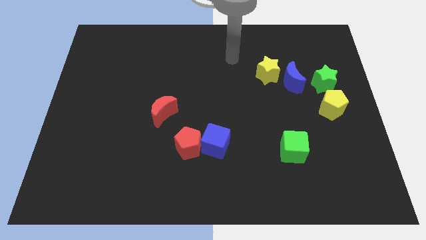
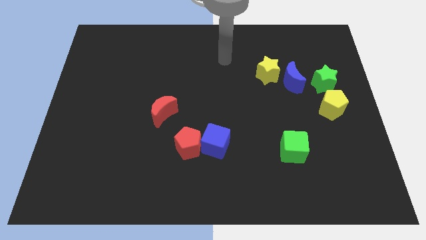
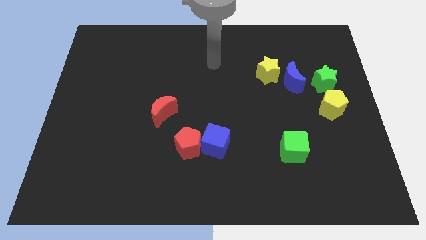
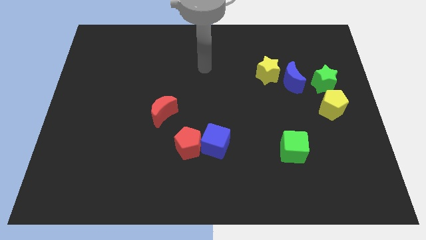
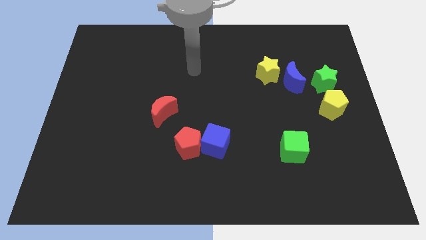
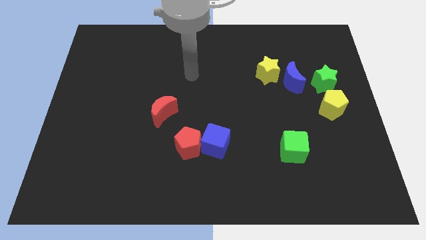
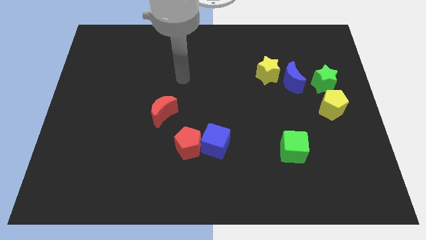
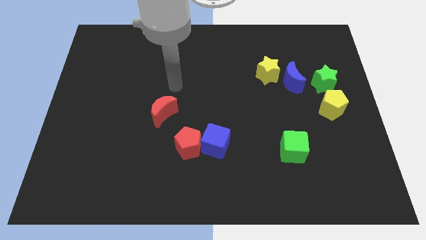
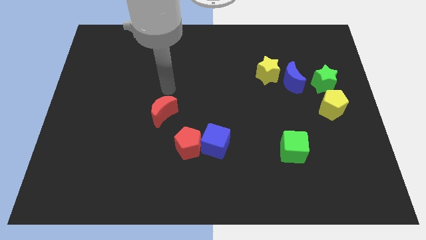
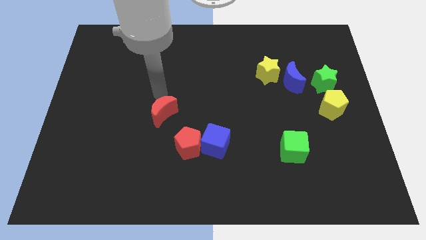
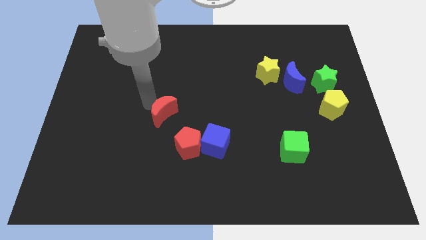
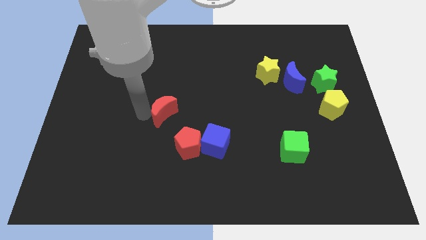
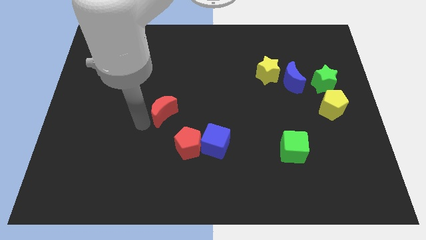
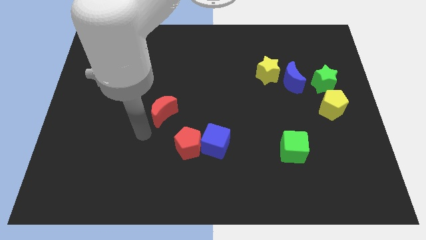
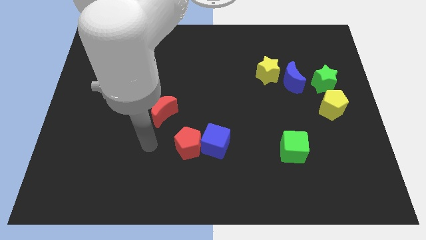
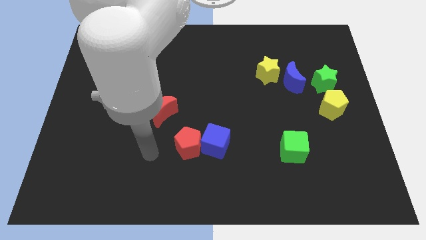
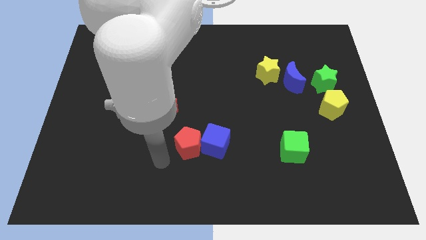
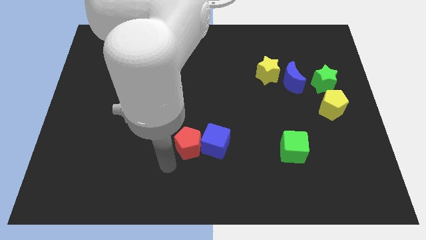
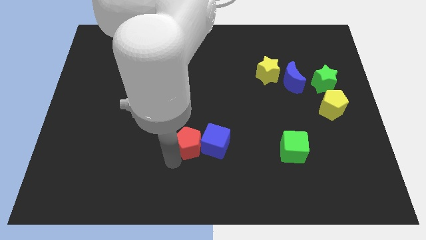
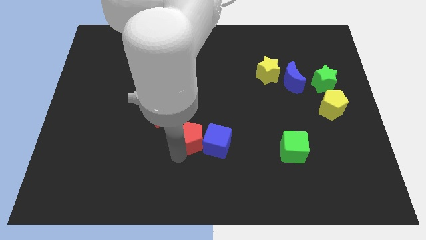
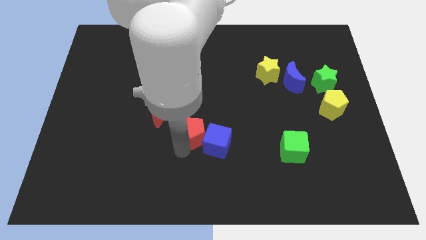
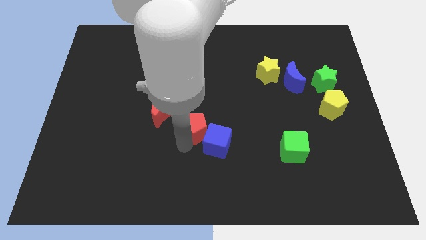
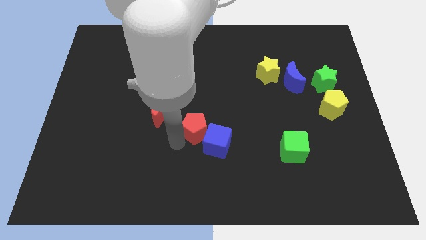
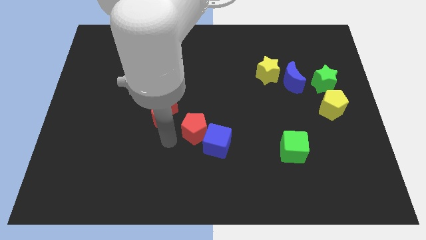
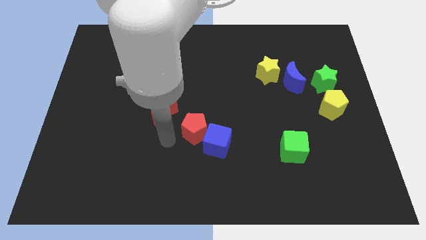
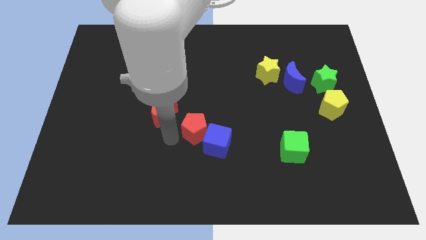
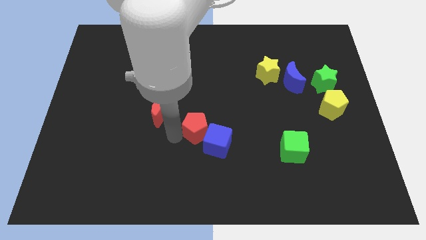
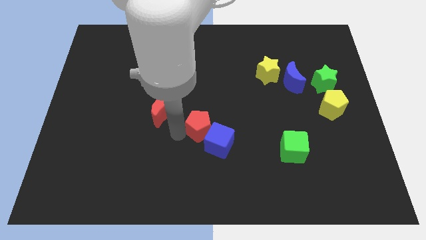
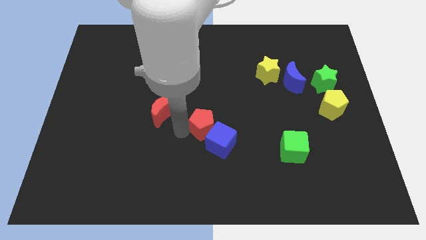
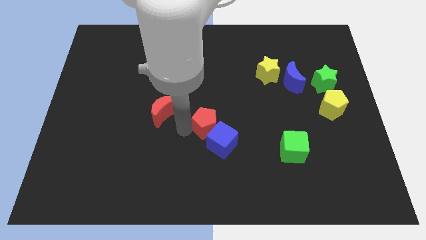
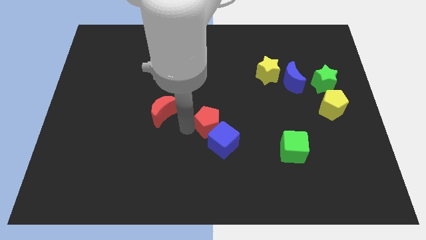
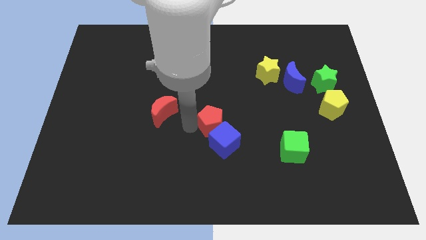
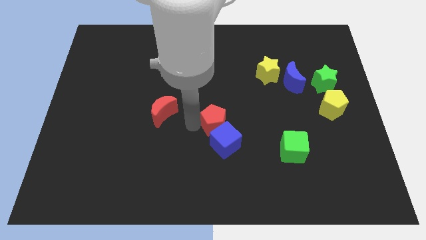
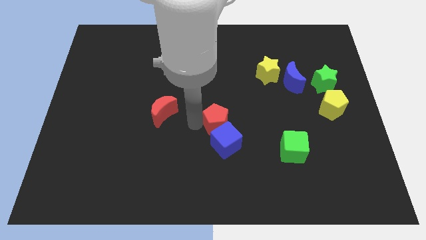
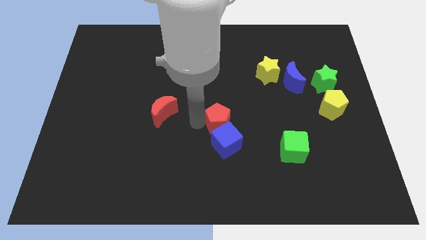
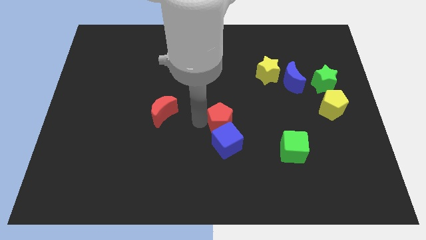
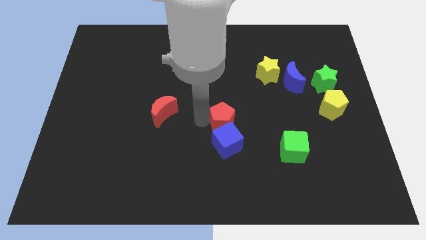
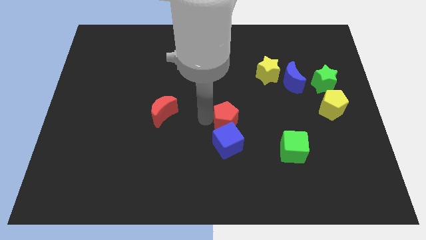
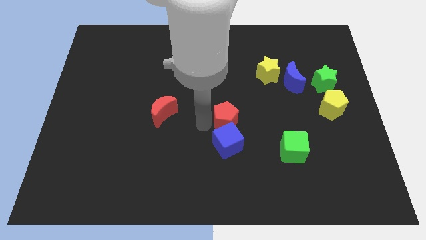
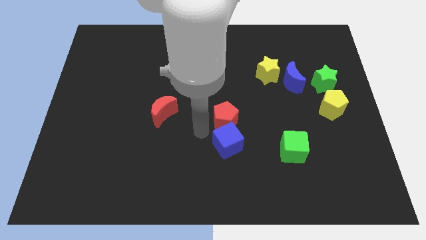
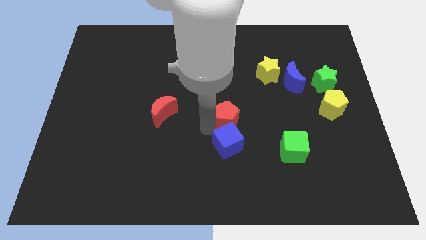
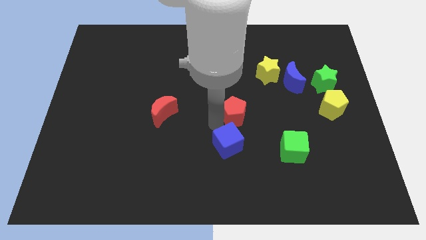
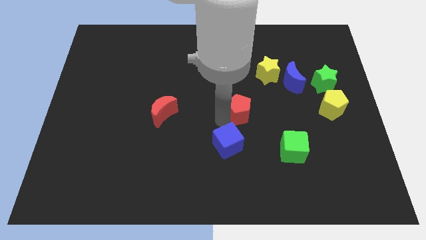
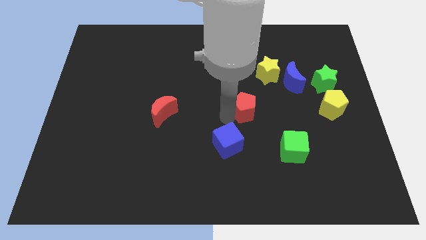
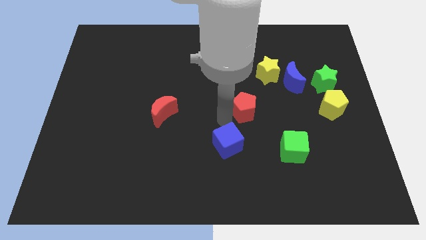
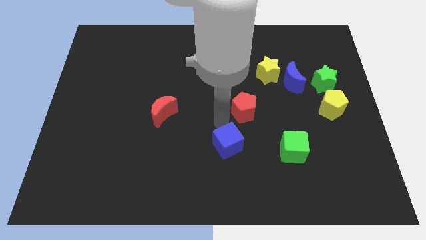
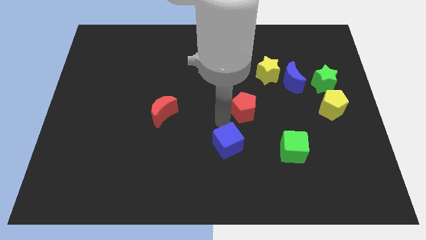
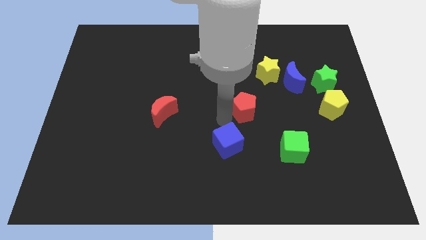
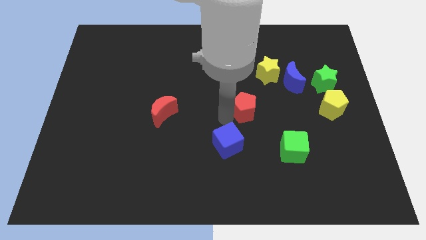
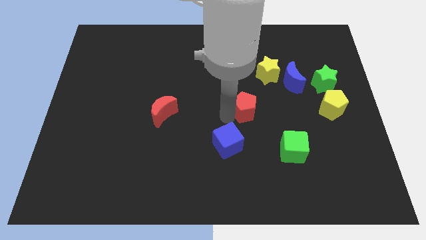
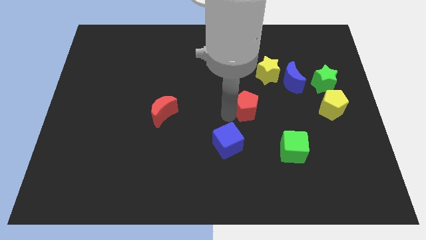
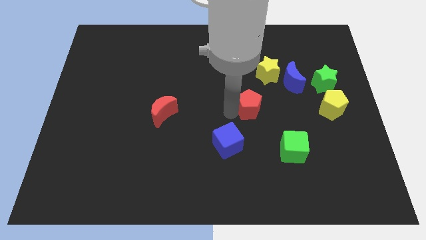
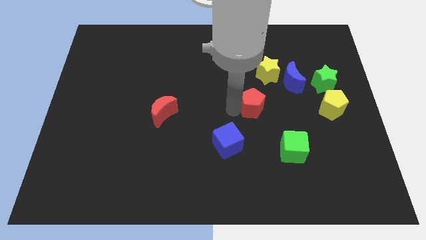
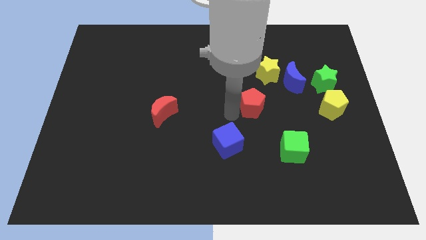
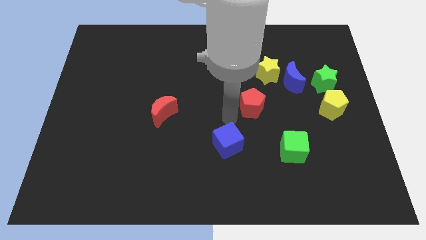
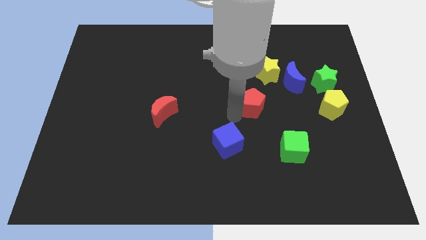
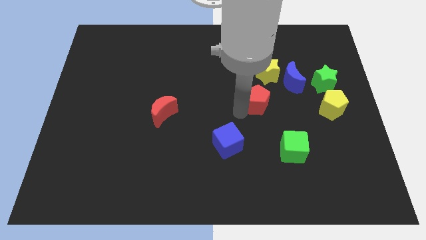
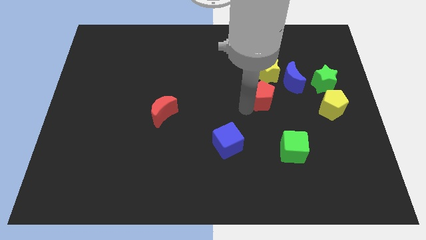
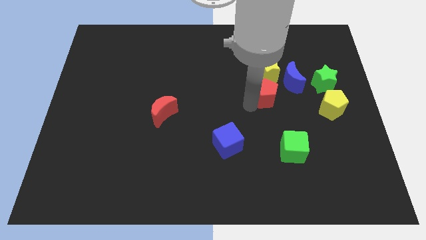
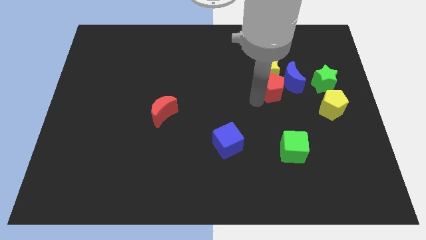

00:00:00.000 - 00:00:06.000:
put the red pentagon next to the blue moon

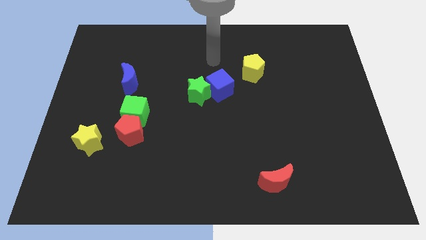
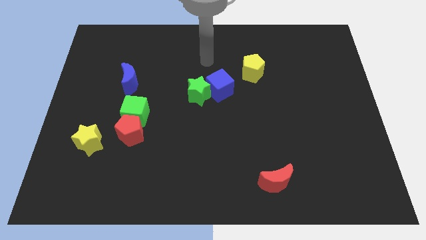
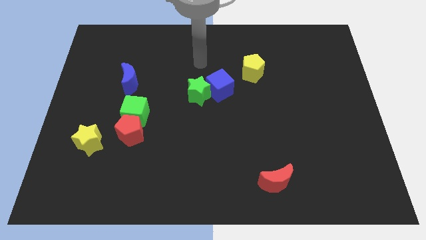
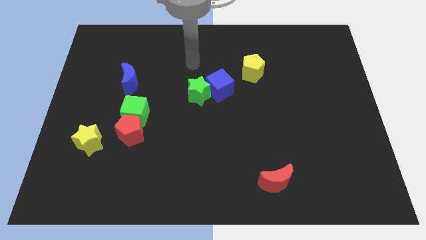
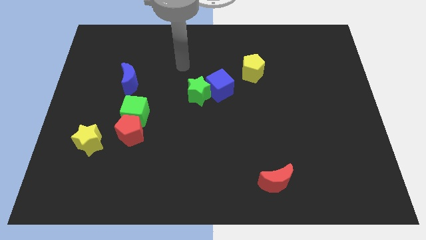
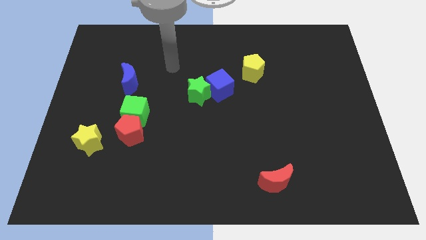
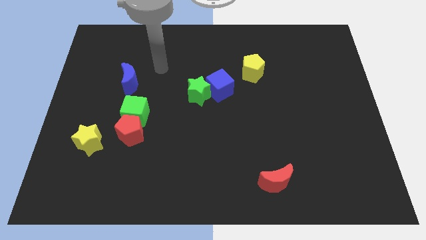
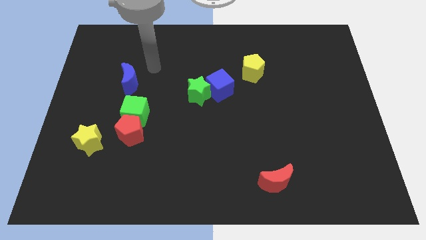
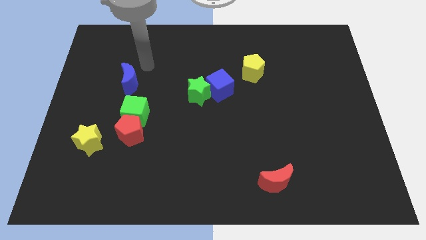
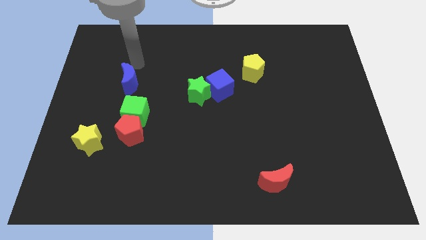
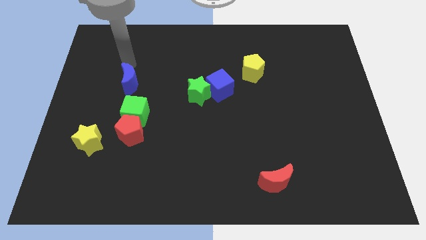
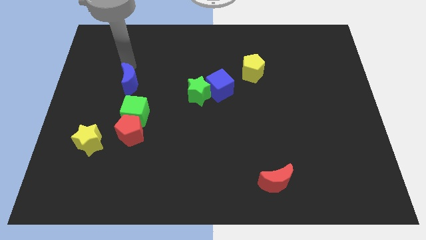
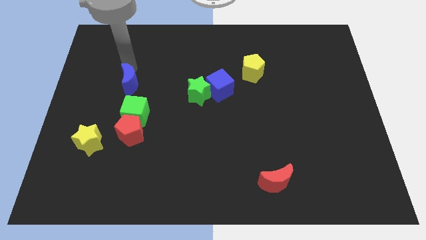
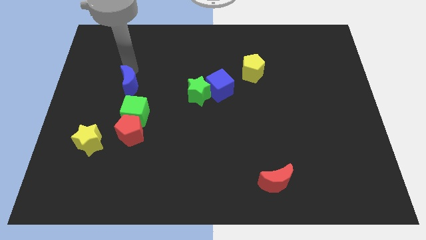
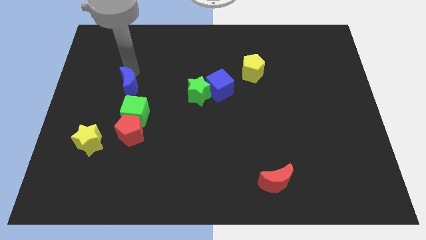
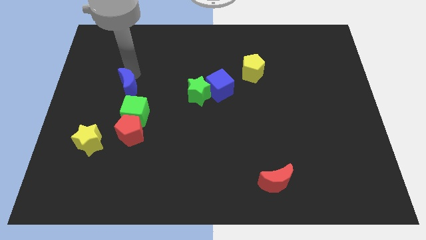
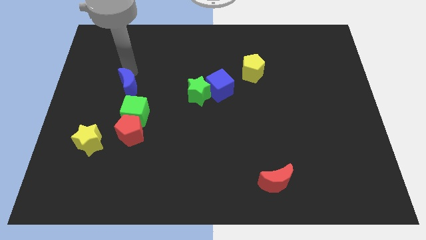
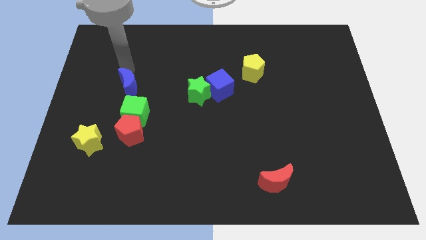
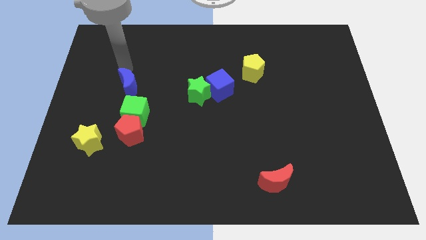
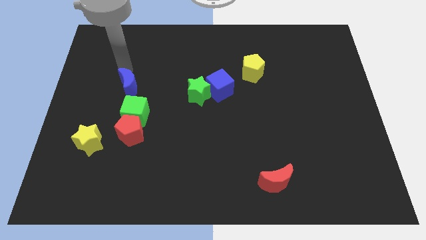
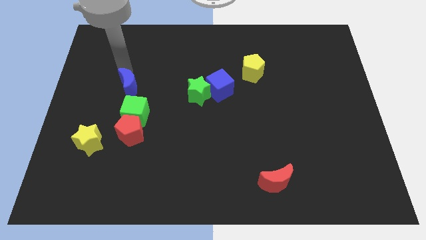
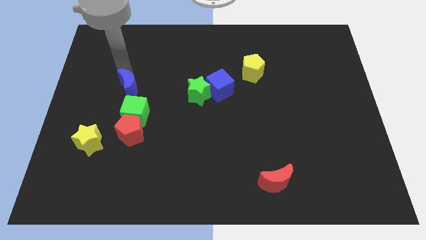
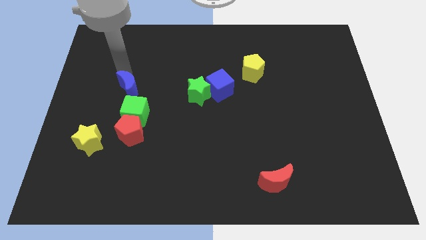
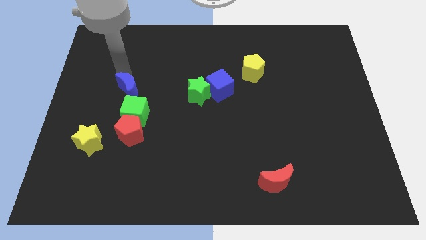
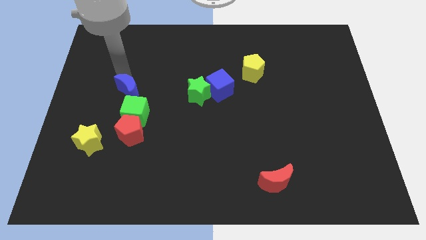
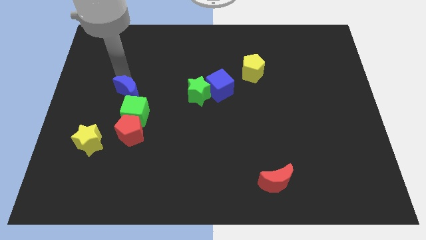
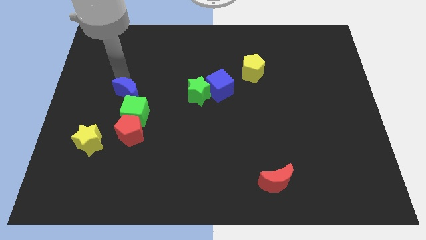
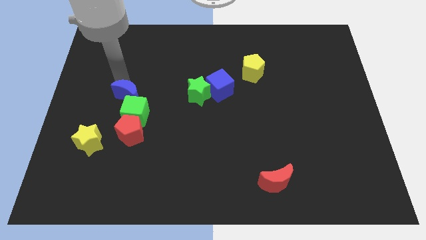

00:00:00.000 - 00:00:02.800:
put the blue moon towards the green cube
